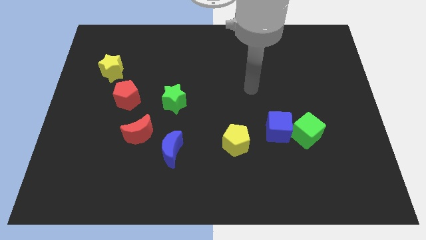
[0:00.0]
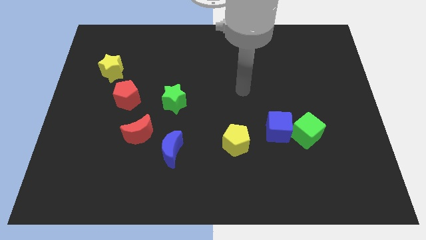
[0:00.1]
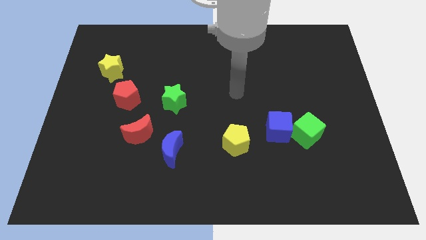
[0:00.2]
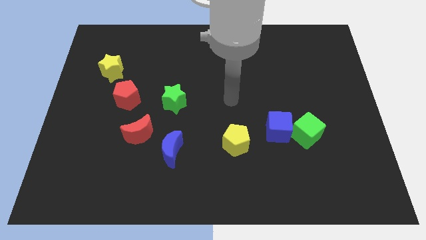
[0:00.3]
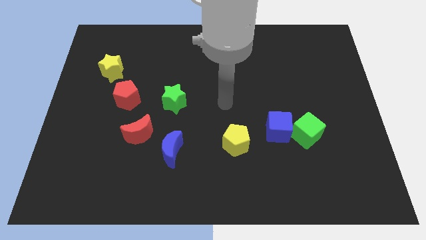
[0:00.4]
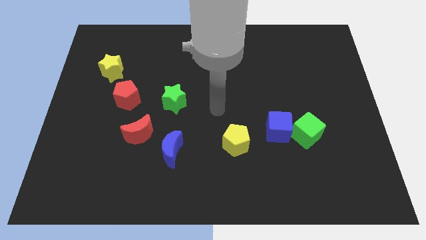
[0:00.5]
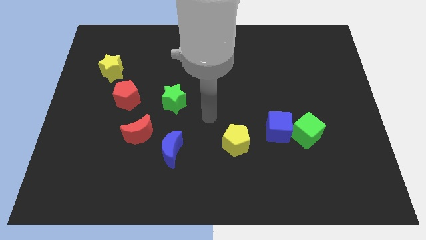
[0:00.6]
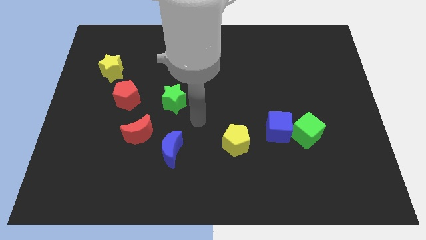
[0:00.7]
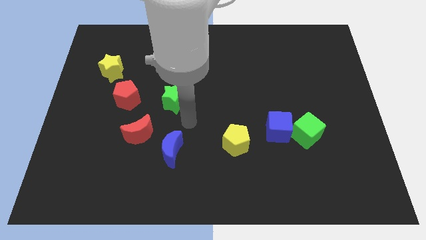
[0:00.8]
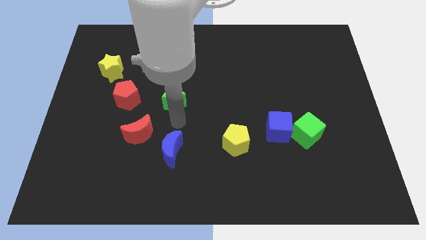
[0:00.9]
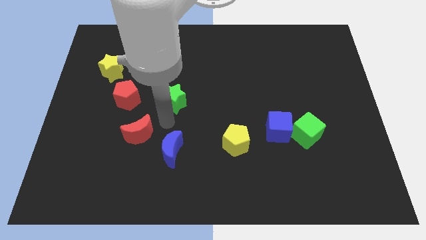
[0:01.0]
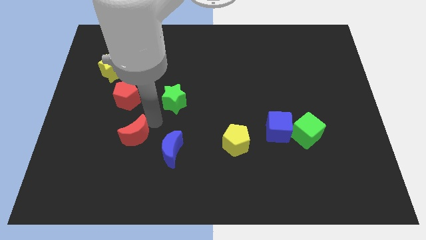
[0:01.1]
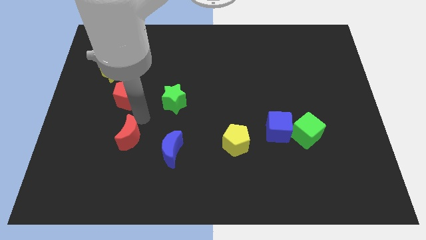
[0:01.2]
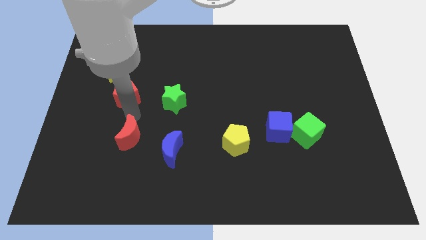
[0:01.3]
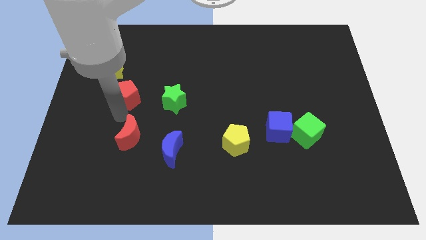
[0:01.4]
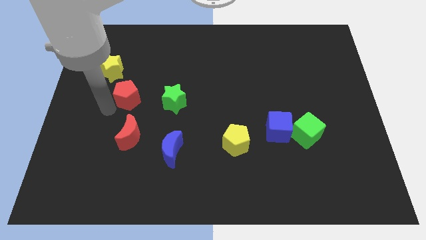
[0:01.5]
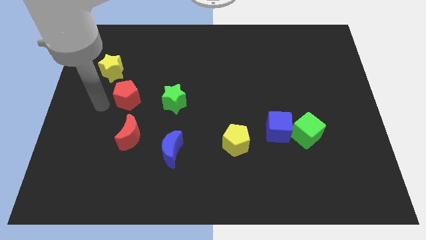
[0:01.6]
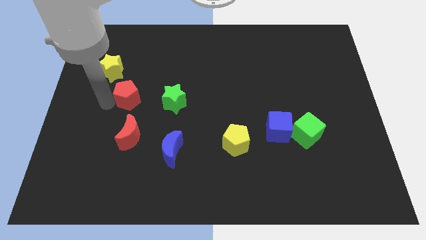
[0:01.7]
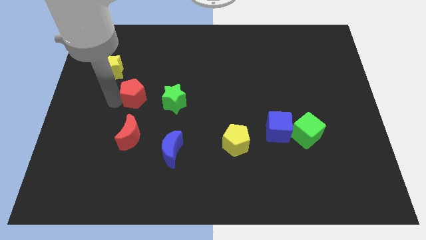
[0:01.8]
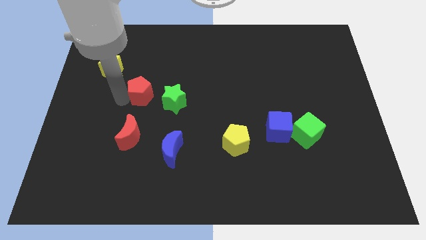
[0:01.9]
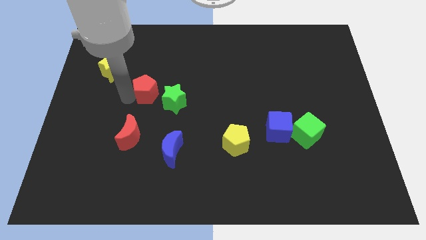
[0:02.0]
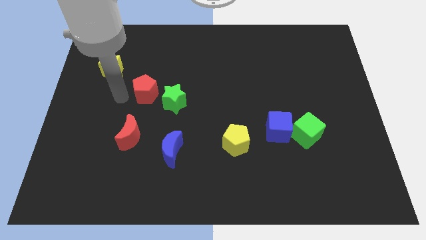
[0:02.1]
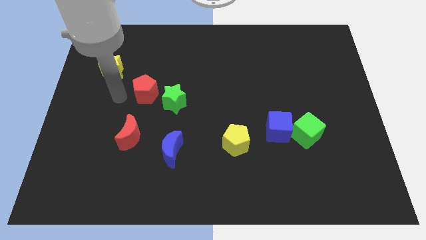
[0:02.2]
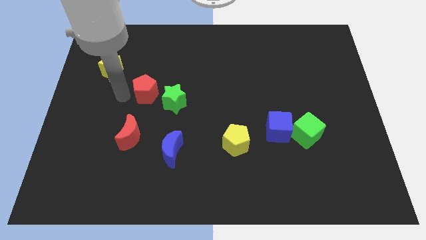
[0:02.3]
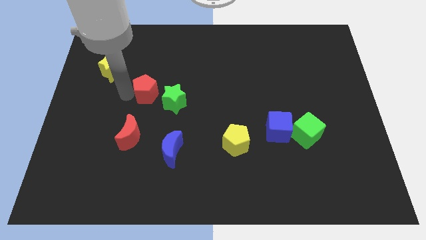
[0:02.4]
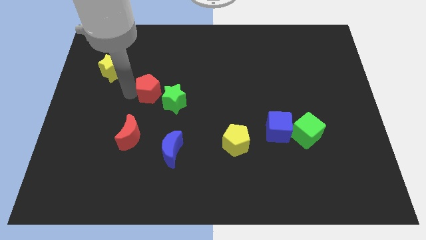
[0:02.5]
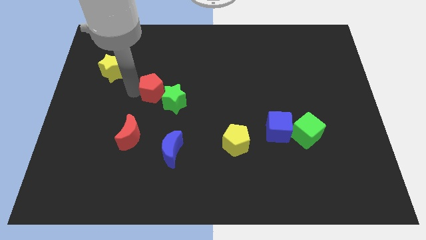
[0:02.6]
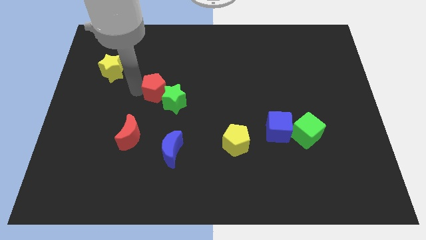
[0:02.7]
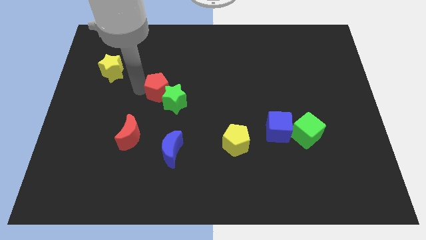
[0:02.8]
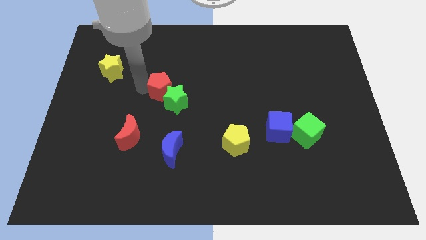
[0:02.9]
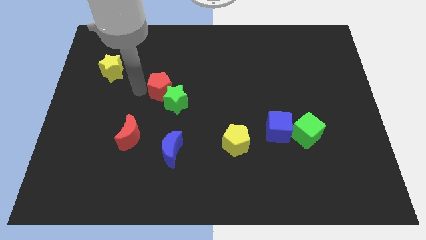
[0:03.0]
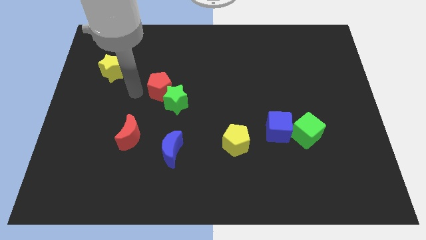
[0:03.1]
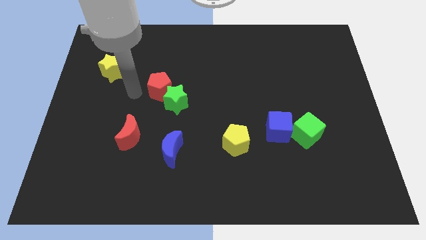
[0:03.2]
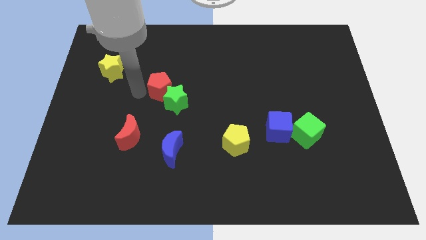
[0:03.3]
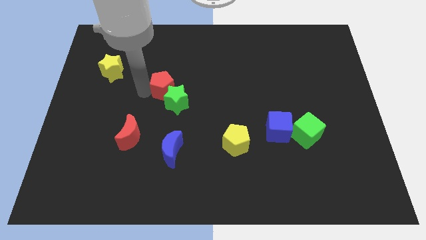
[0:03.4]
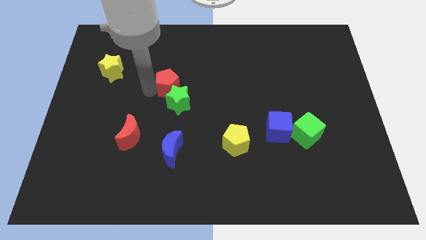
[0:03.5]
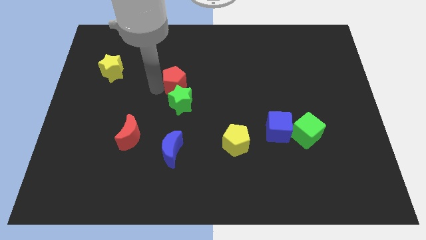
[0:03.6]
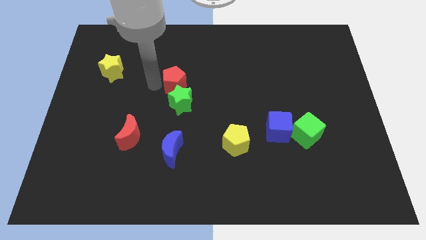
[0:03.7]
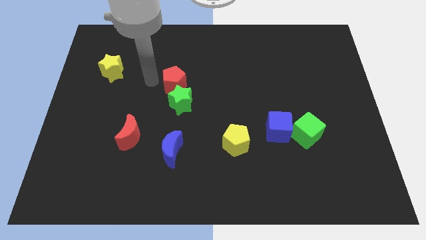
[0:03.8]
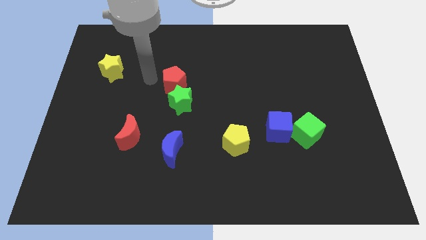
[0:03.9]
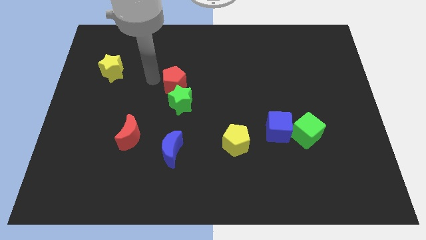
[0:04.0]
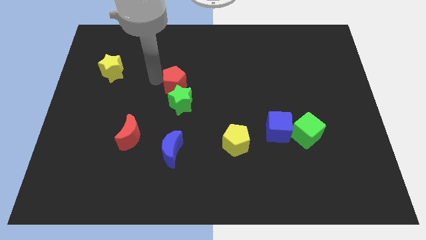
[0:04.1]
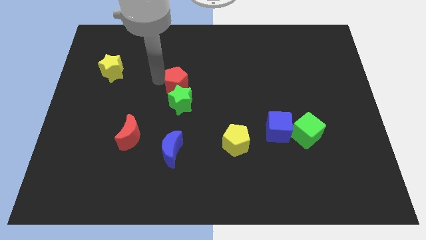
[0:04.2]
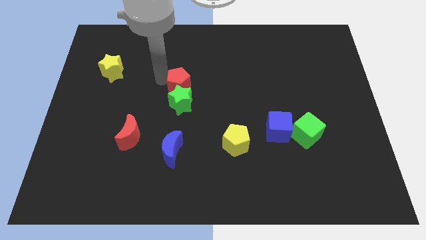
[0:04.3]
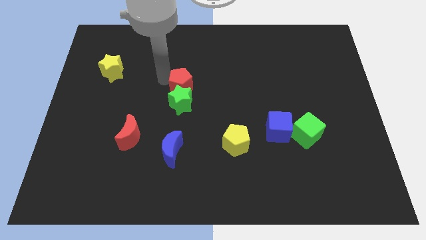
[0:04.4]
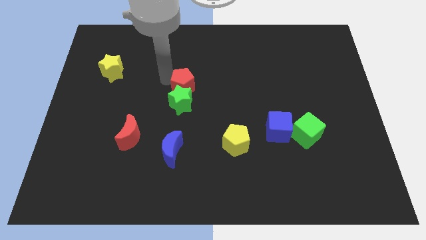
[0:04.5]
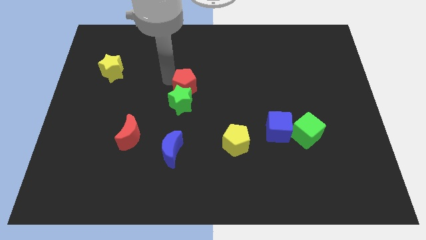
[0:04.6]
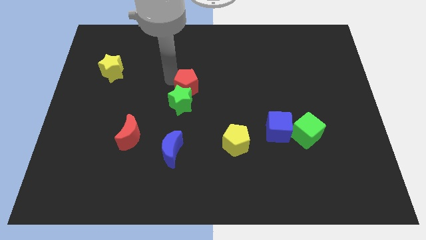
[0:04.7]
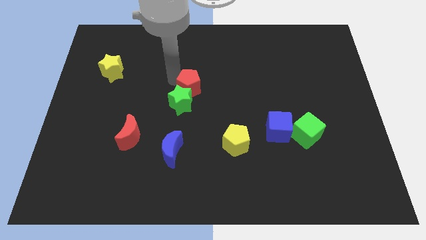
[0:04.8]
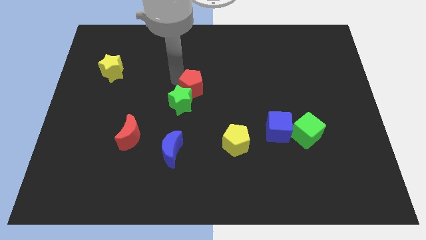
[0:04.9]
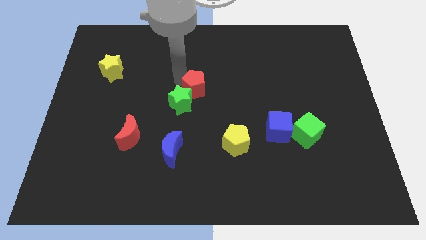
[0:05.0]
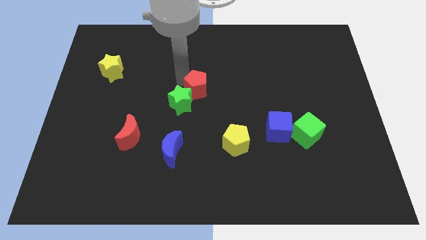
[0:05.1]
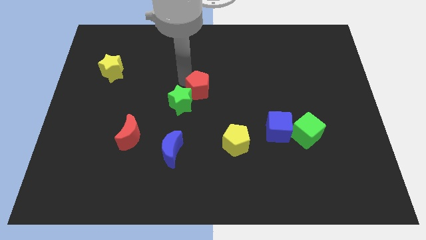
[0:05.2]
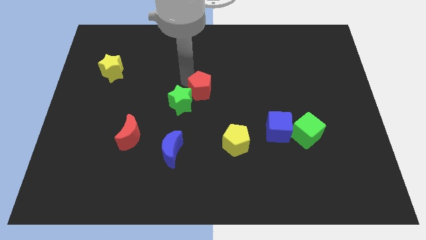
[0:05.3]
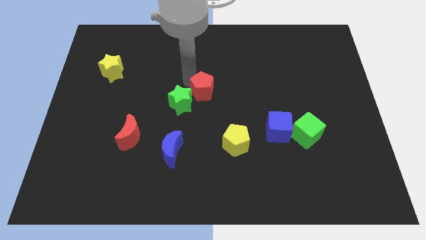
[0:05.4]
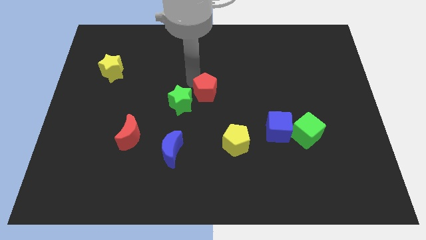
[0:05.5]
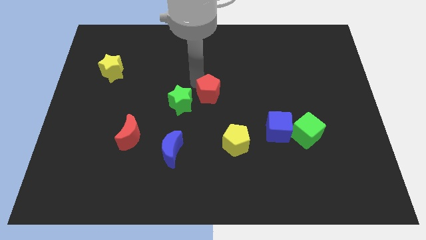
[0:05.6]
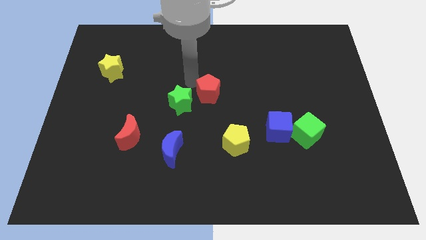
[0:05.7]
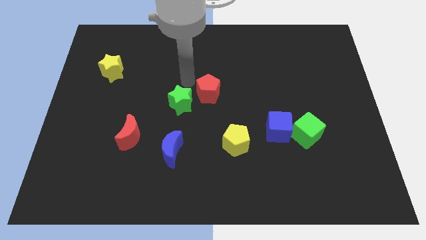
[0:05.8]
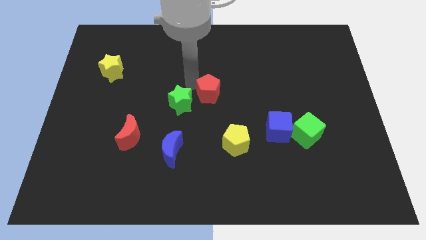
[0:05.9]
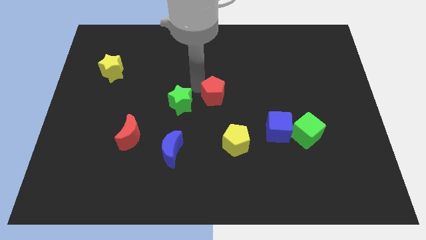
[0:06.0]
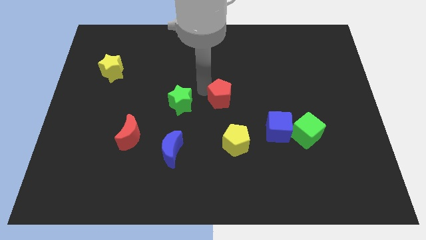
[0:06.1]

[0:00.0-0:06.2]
push the red pentagon above the yellow pentagon

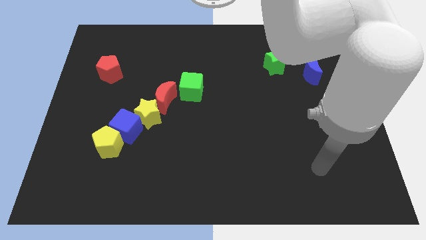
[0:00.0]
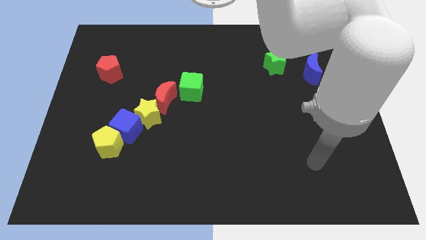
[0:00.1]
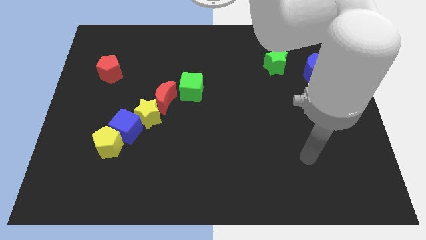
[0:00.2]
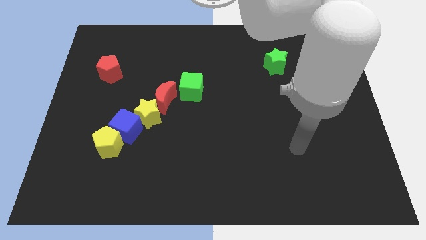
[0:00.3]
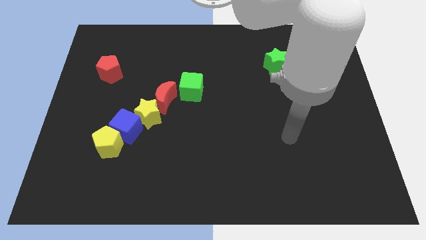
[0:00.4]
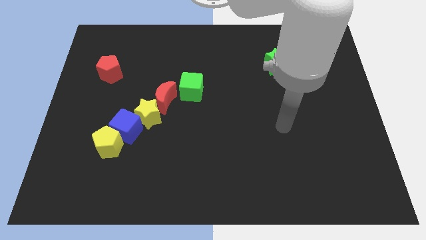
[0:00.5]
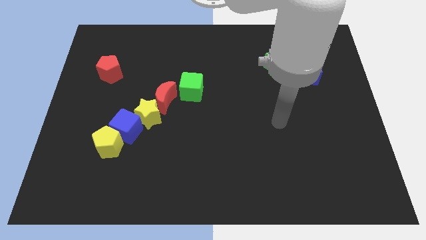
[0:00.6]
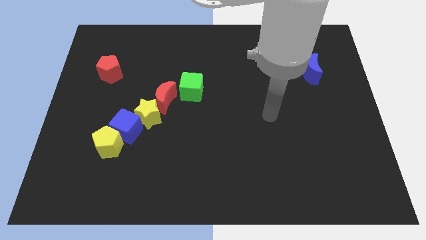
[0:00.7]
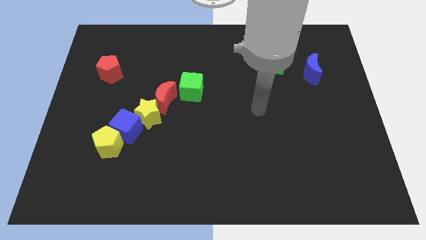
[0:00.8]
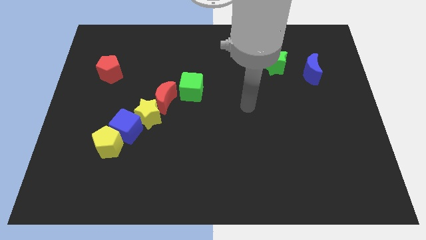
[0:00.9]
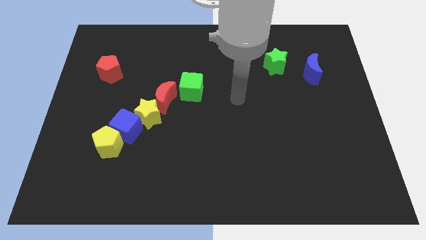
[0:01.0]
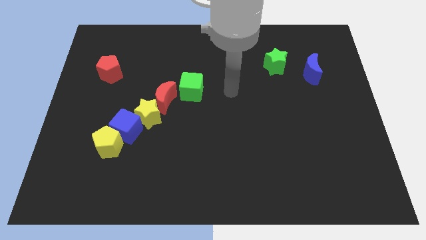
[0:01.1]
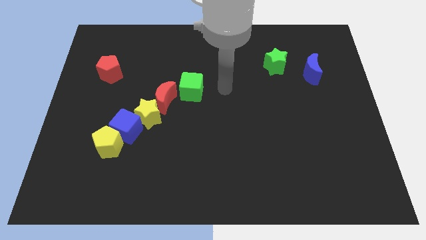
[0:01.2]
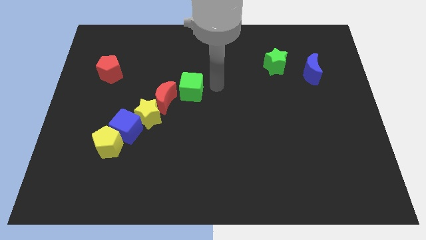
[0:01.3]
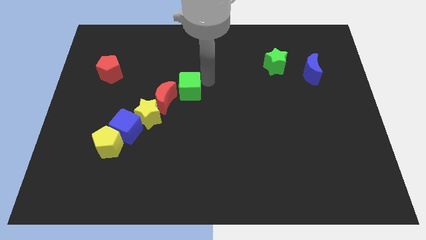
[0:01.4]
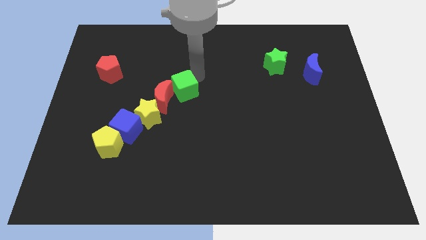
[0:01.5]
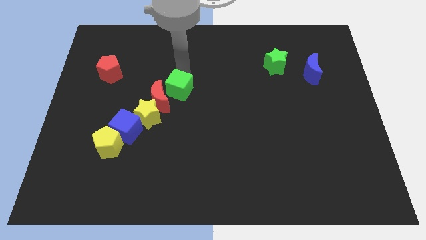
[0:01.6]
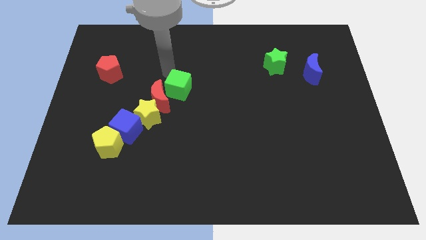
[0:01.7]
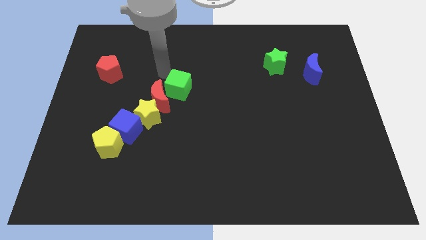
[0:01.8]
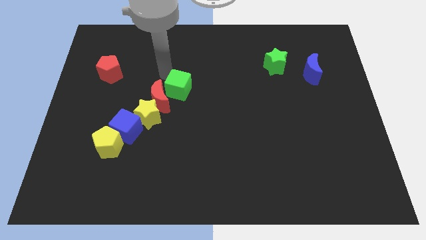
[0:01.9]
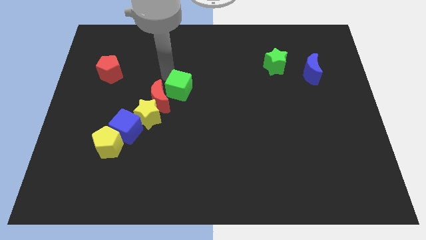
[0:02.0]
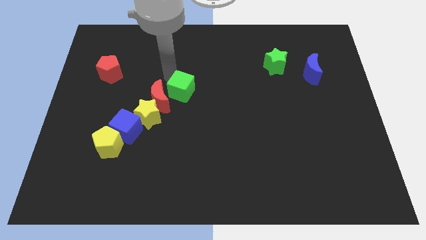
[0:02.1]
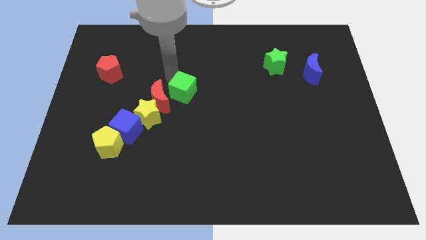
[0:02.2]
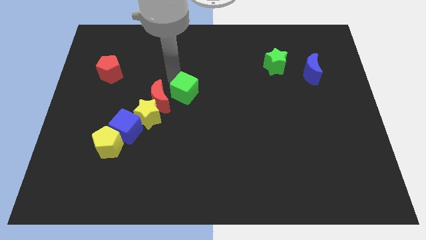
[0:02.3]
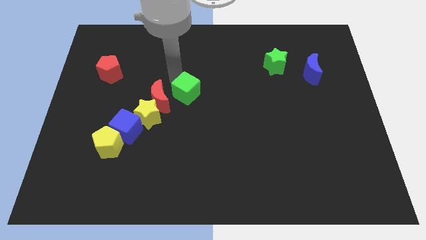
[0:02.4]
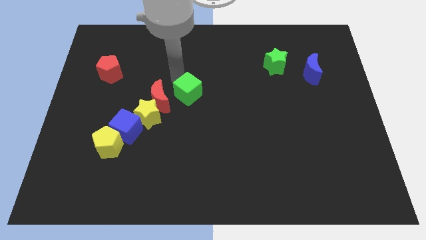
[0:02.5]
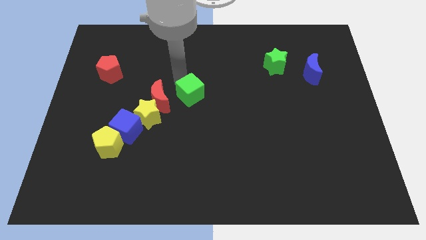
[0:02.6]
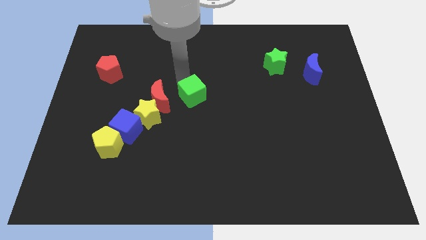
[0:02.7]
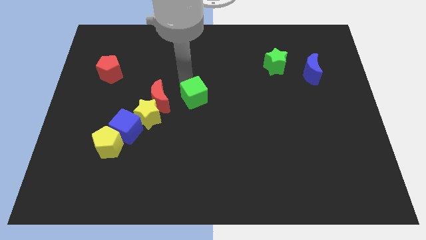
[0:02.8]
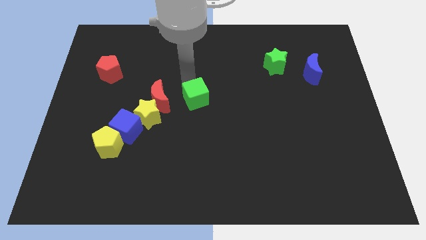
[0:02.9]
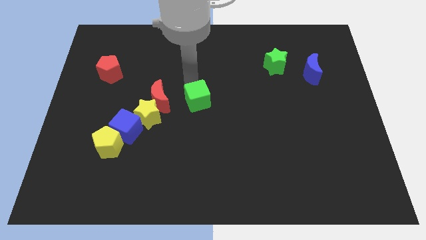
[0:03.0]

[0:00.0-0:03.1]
put the green cube to the right side of the yellow star
